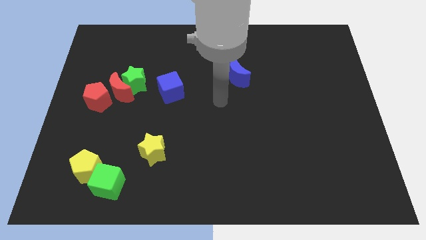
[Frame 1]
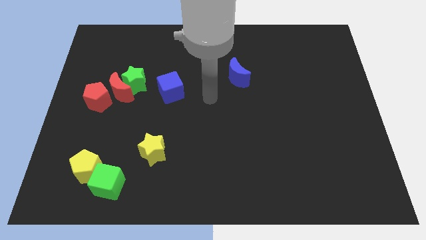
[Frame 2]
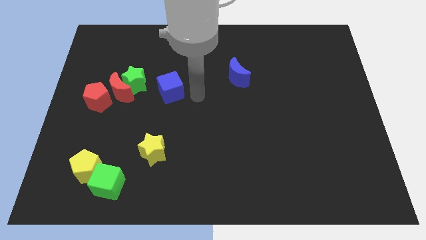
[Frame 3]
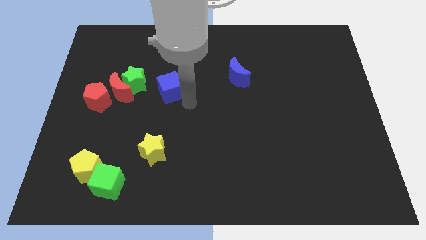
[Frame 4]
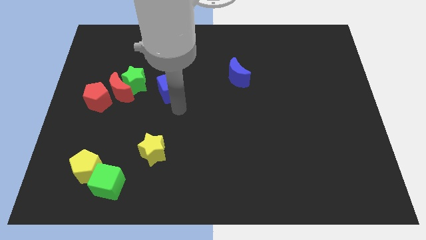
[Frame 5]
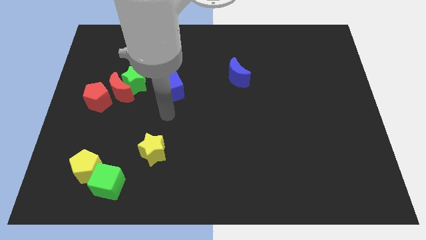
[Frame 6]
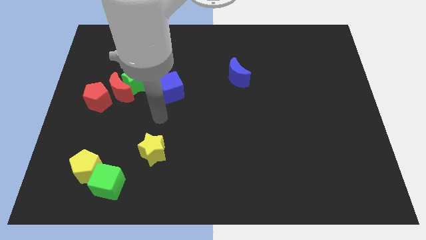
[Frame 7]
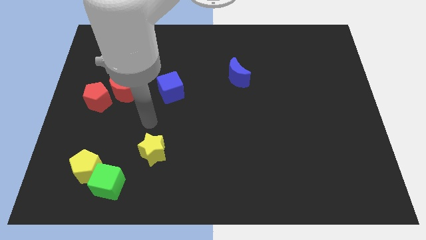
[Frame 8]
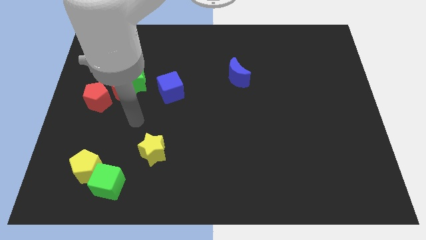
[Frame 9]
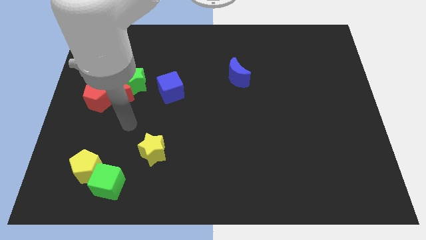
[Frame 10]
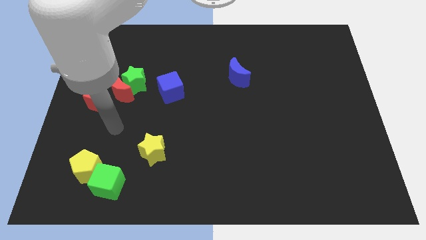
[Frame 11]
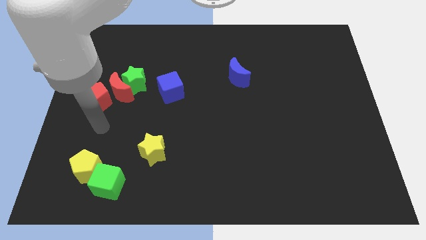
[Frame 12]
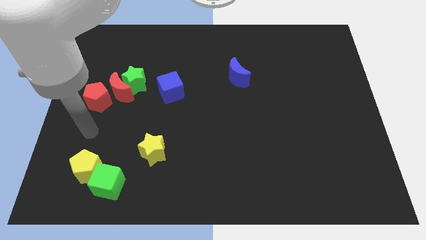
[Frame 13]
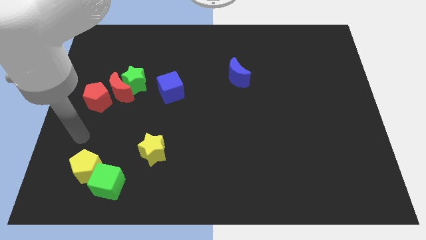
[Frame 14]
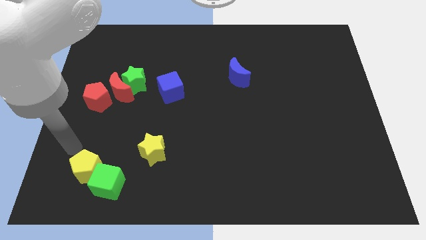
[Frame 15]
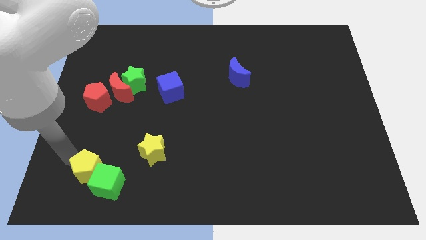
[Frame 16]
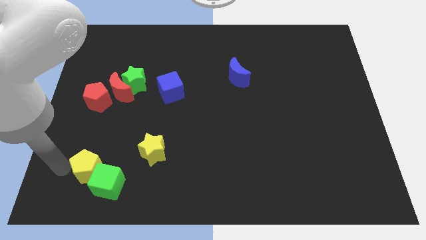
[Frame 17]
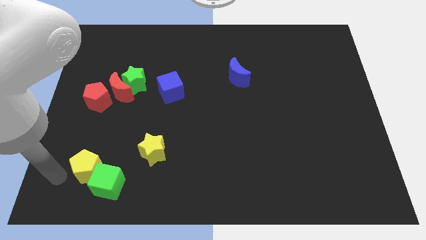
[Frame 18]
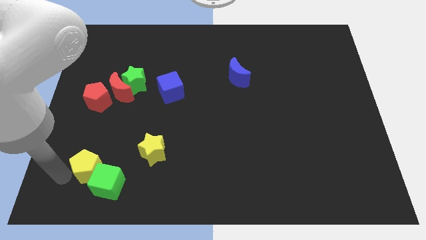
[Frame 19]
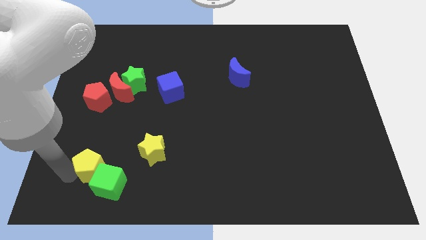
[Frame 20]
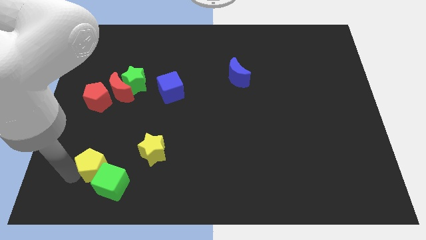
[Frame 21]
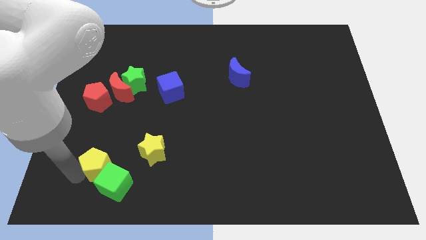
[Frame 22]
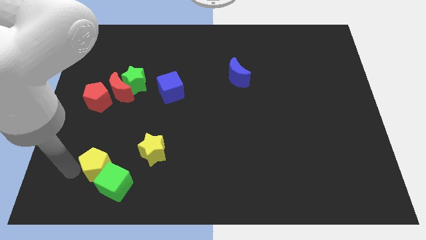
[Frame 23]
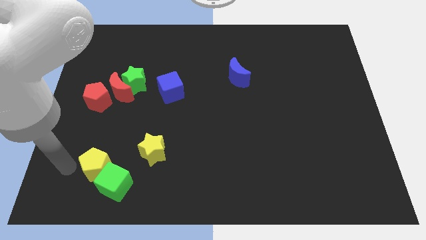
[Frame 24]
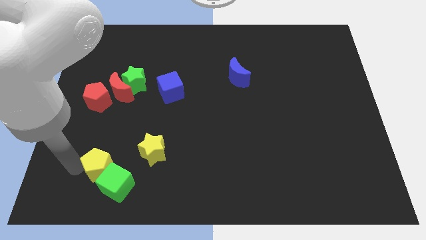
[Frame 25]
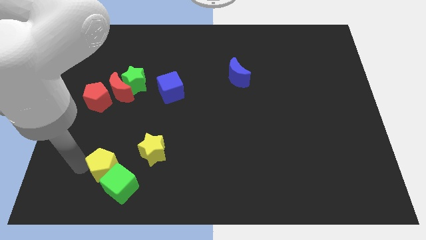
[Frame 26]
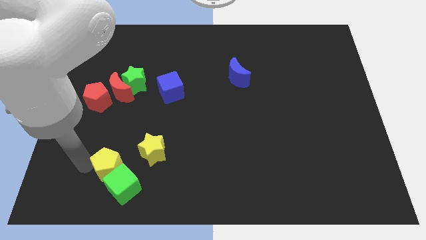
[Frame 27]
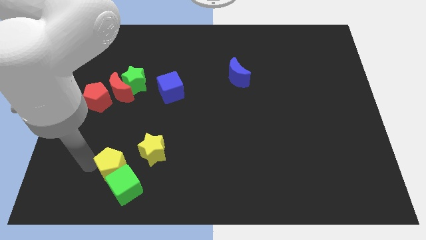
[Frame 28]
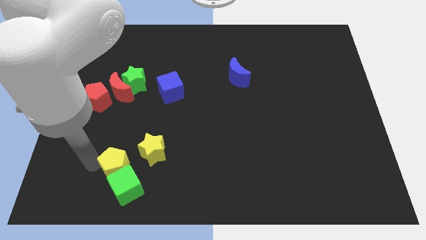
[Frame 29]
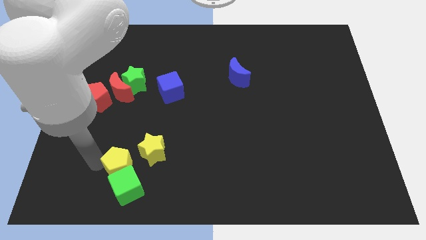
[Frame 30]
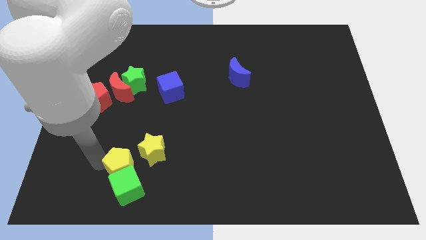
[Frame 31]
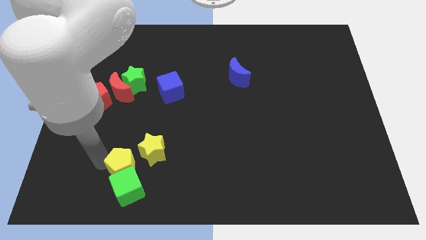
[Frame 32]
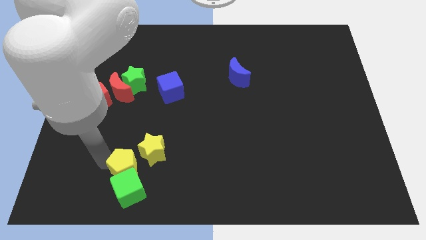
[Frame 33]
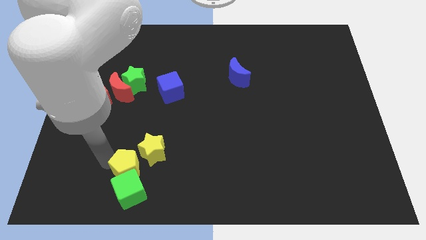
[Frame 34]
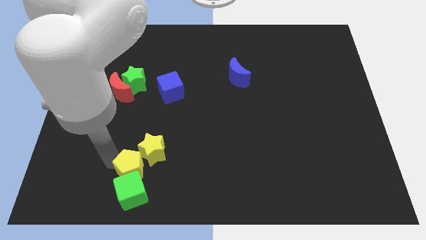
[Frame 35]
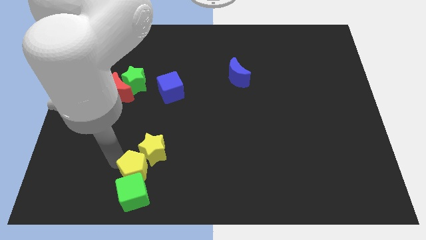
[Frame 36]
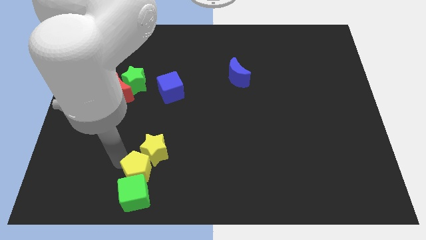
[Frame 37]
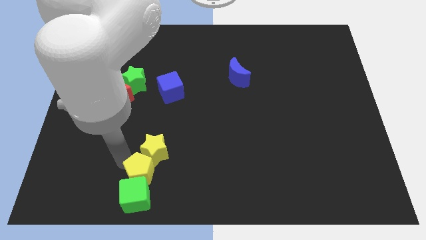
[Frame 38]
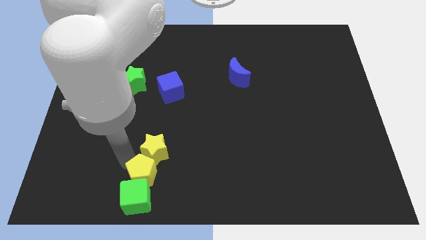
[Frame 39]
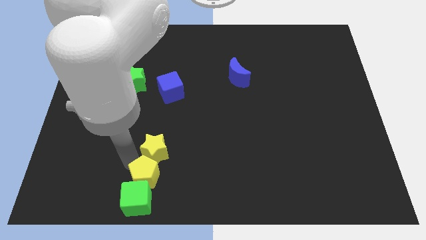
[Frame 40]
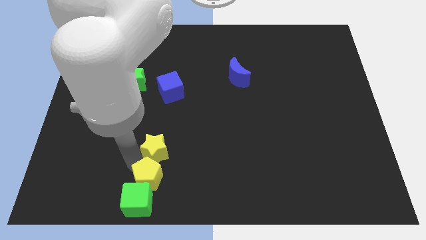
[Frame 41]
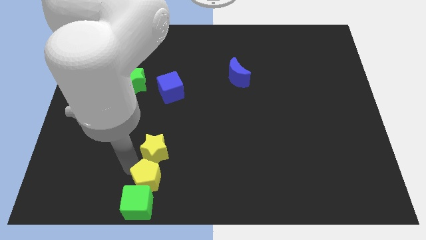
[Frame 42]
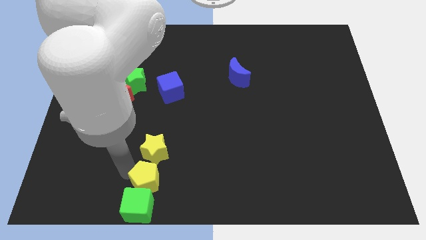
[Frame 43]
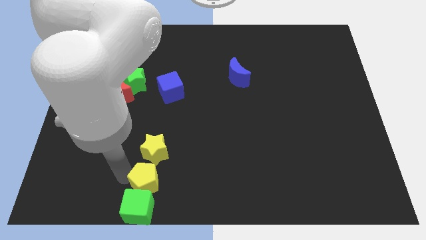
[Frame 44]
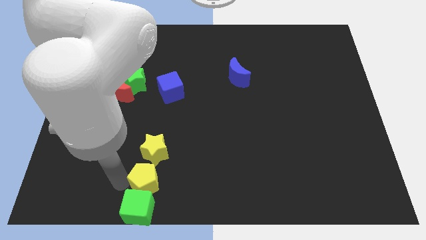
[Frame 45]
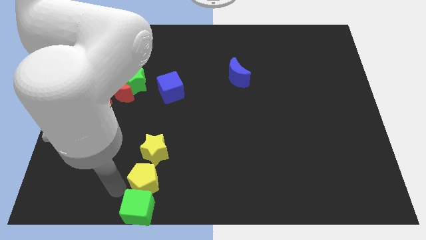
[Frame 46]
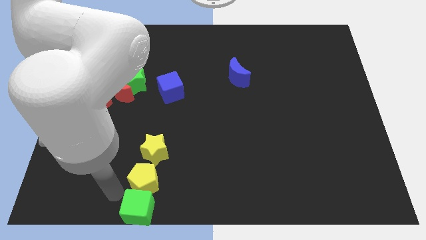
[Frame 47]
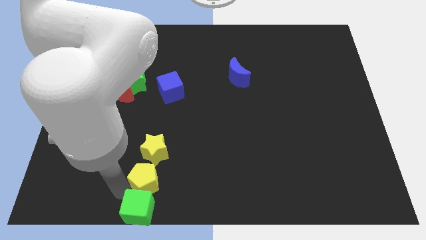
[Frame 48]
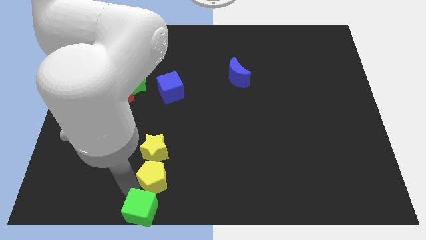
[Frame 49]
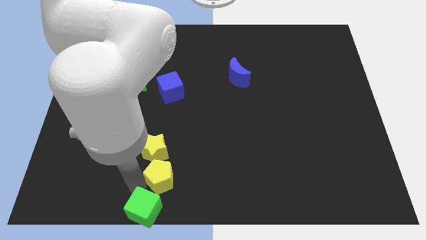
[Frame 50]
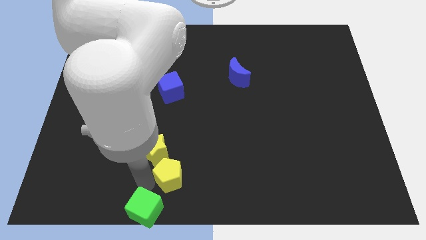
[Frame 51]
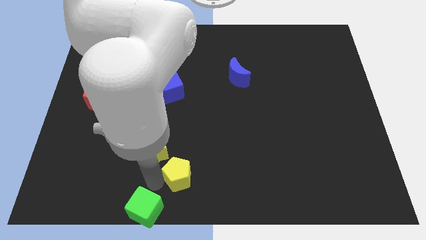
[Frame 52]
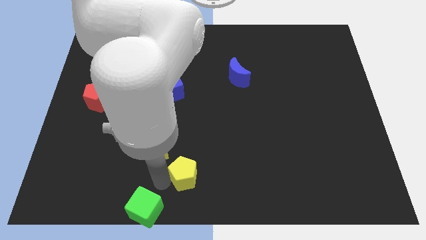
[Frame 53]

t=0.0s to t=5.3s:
slide the yellow pentagon to the right

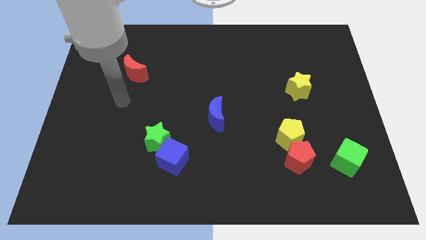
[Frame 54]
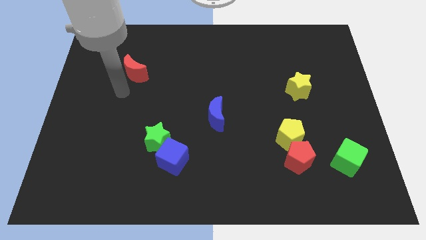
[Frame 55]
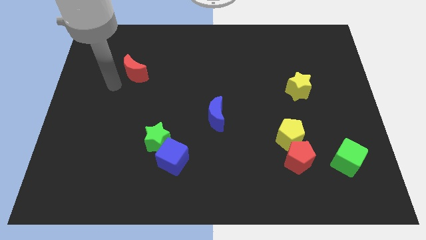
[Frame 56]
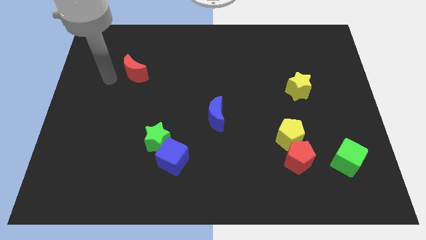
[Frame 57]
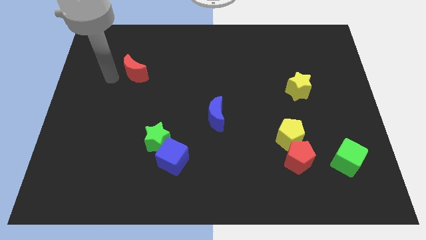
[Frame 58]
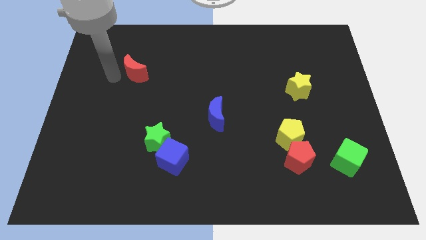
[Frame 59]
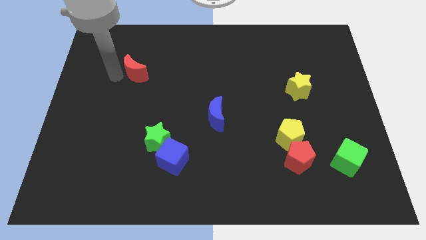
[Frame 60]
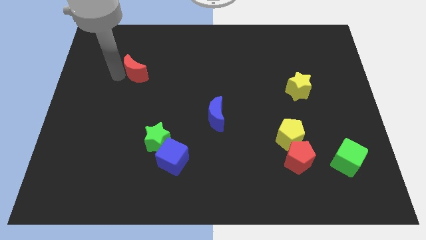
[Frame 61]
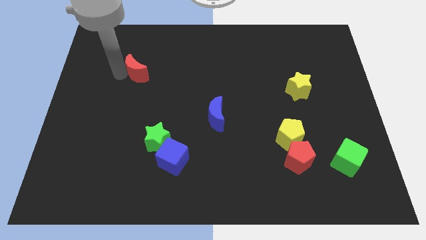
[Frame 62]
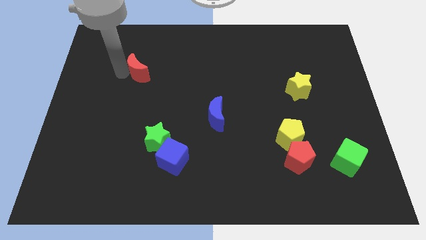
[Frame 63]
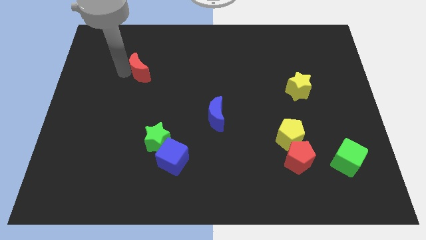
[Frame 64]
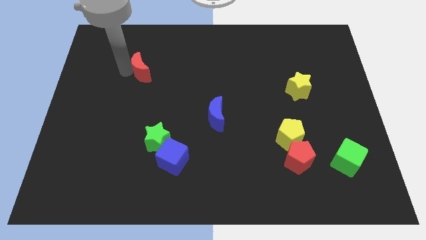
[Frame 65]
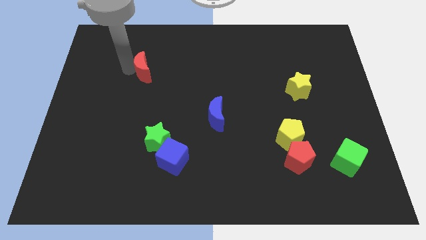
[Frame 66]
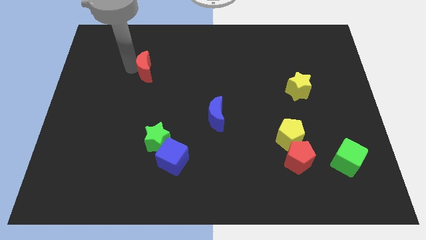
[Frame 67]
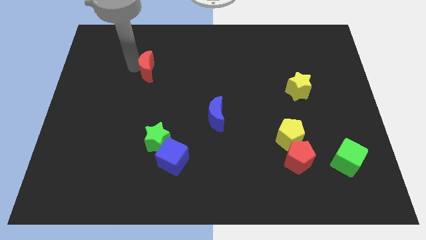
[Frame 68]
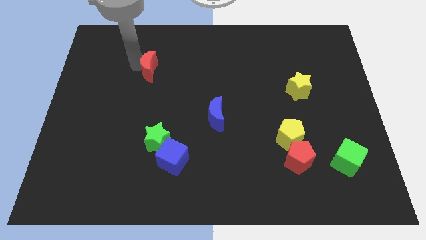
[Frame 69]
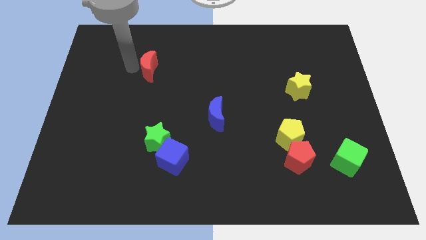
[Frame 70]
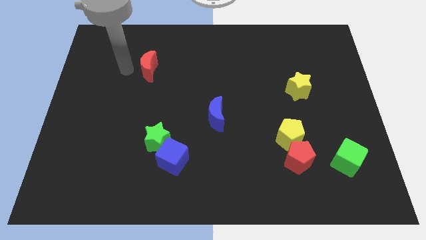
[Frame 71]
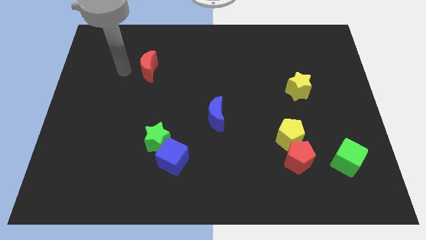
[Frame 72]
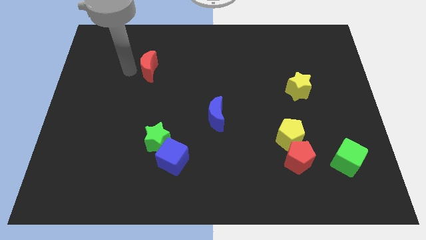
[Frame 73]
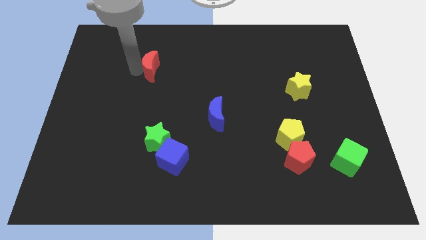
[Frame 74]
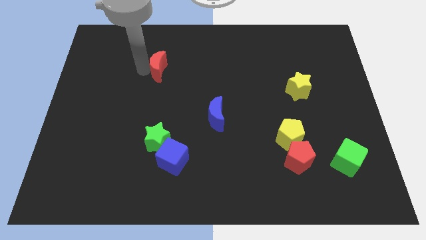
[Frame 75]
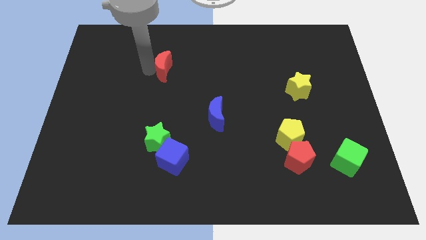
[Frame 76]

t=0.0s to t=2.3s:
move the red moon right a bit

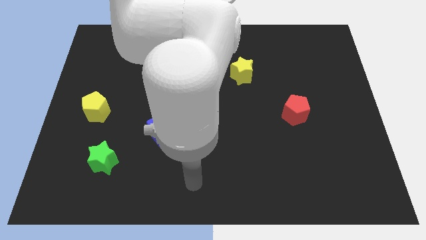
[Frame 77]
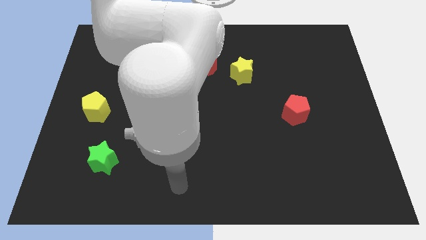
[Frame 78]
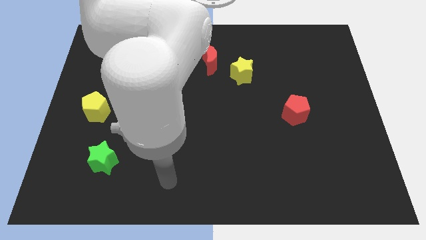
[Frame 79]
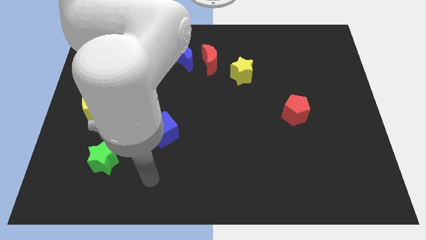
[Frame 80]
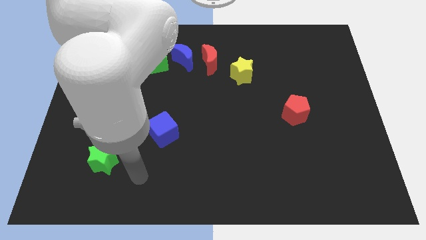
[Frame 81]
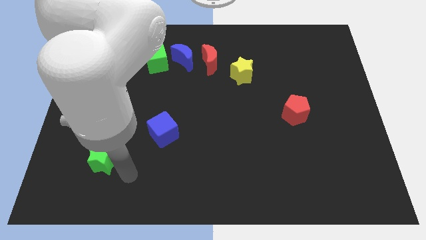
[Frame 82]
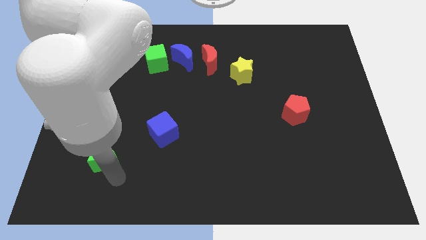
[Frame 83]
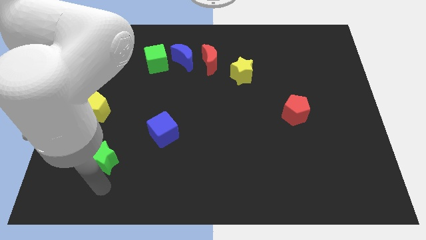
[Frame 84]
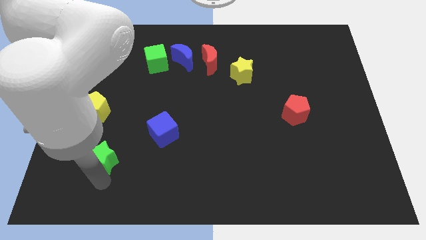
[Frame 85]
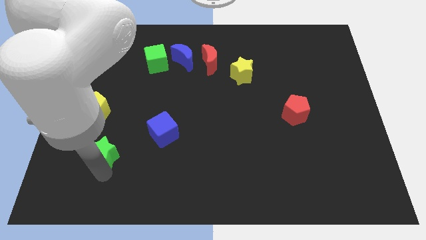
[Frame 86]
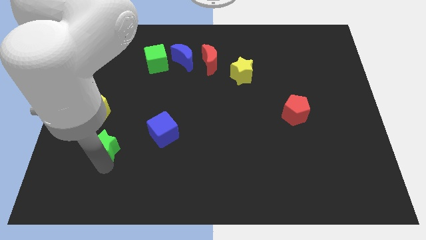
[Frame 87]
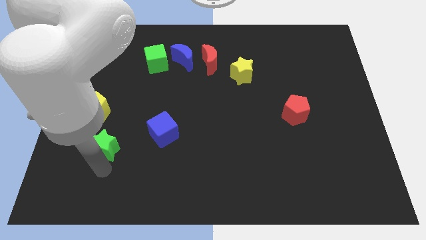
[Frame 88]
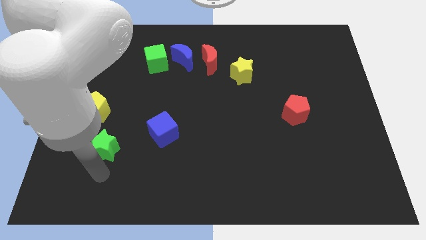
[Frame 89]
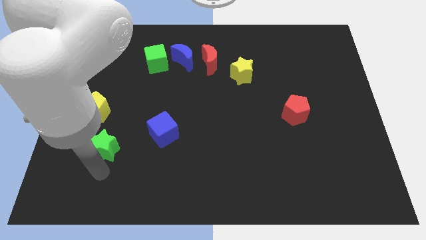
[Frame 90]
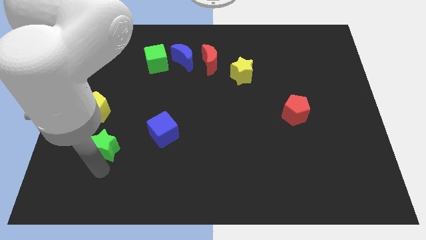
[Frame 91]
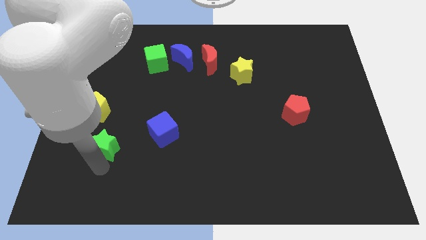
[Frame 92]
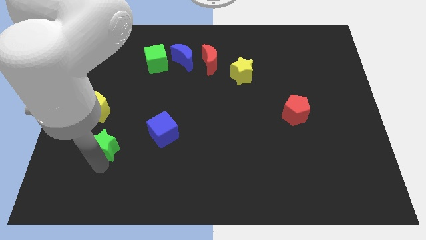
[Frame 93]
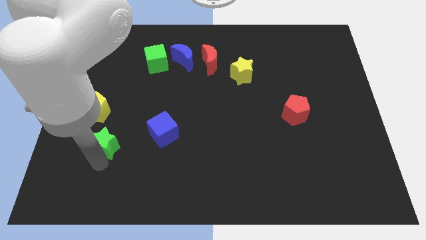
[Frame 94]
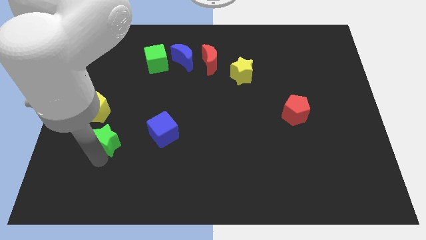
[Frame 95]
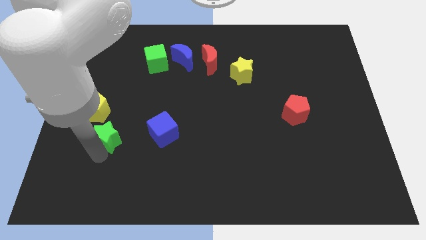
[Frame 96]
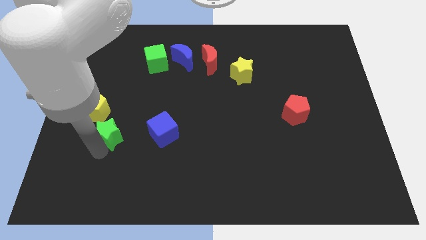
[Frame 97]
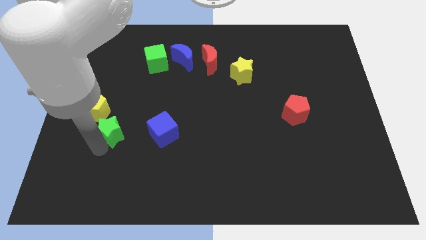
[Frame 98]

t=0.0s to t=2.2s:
slightly push the green star upwards
